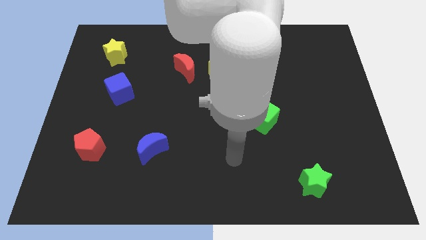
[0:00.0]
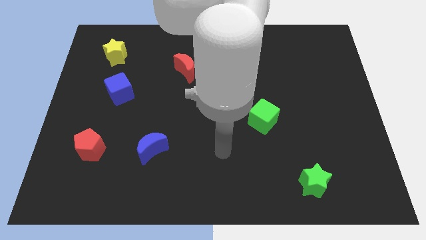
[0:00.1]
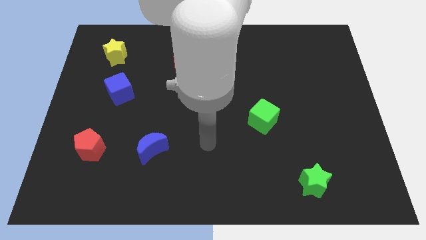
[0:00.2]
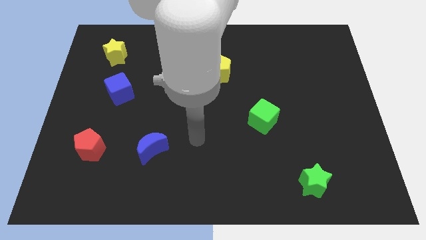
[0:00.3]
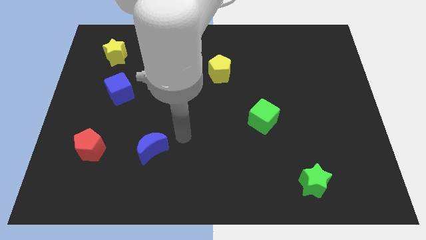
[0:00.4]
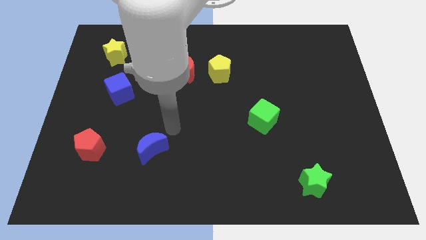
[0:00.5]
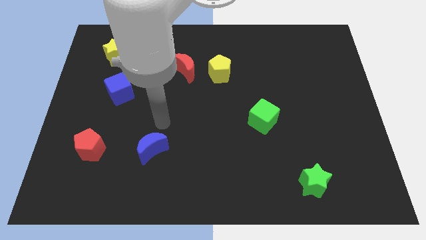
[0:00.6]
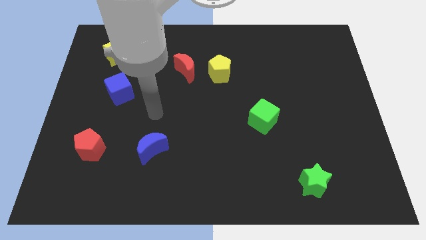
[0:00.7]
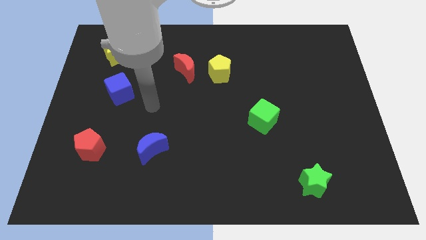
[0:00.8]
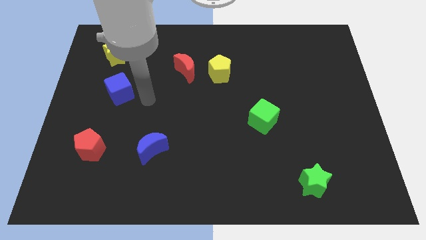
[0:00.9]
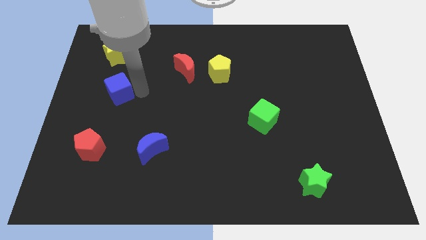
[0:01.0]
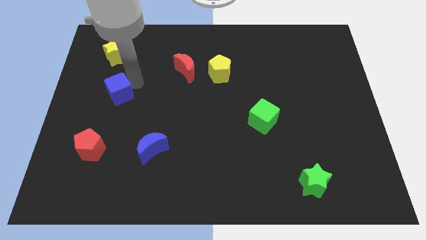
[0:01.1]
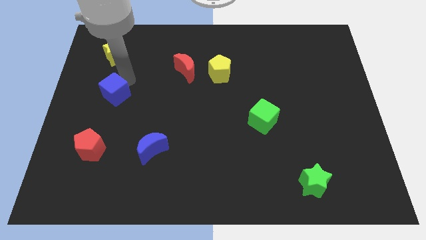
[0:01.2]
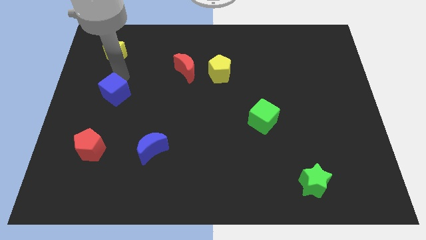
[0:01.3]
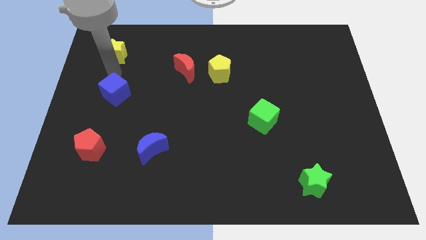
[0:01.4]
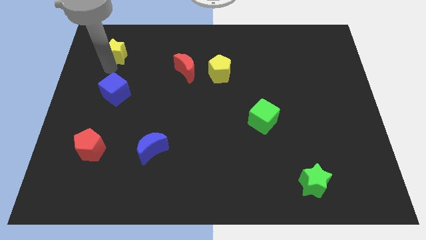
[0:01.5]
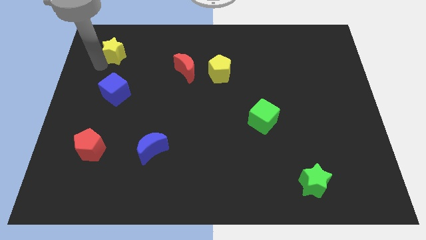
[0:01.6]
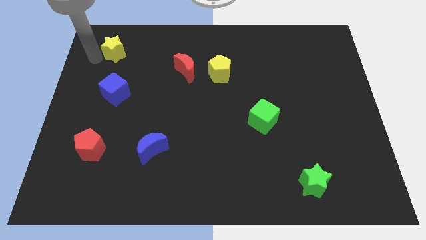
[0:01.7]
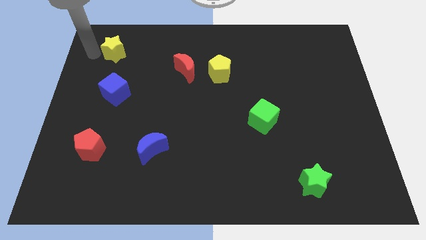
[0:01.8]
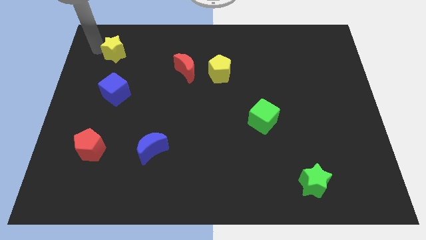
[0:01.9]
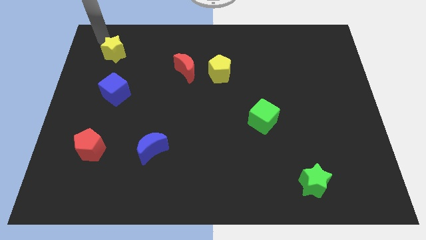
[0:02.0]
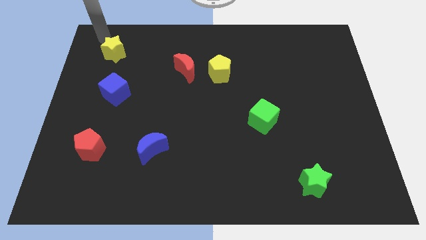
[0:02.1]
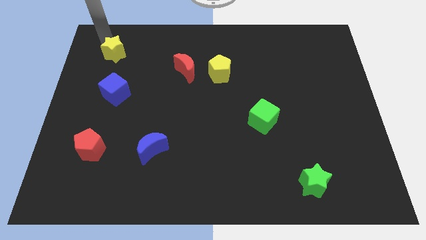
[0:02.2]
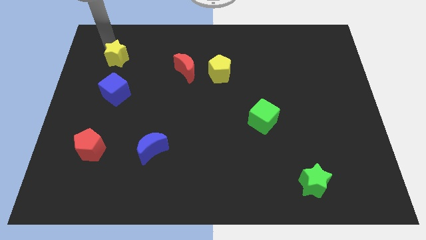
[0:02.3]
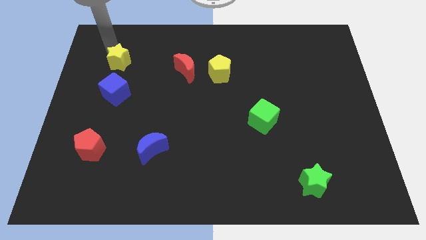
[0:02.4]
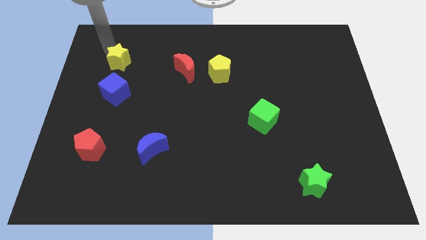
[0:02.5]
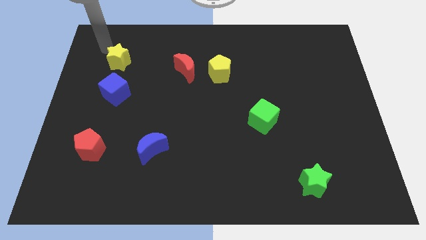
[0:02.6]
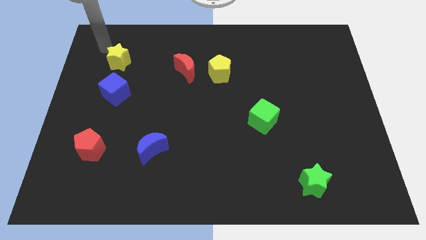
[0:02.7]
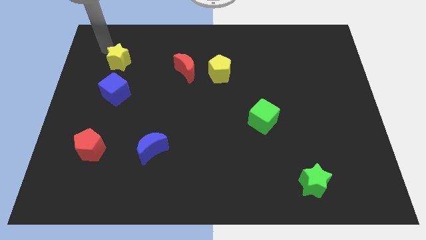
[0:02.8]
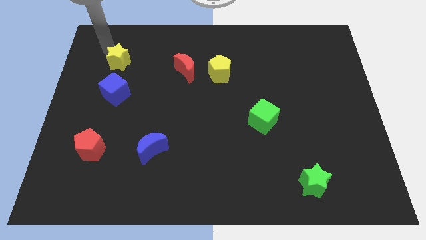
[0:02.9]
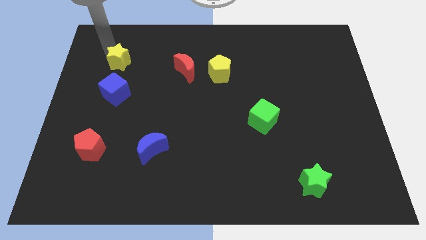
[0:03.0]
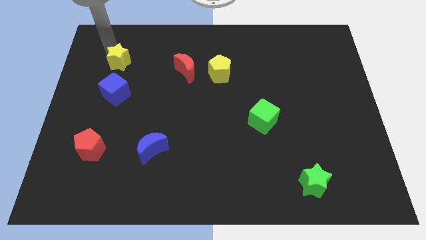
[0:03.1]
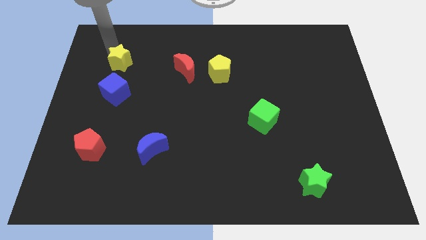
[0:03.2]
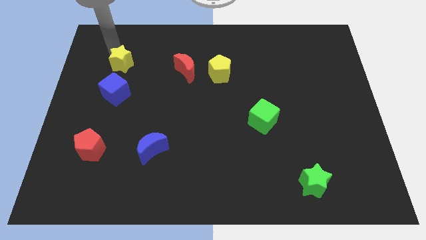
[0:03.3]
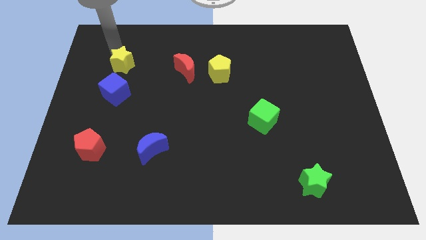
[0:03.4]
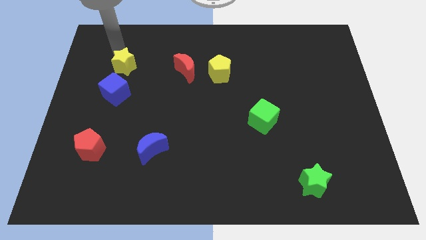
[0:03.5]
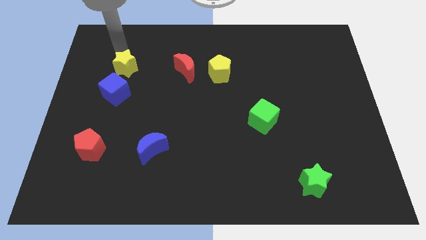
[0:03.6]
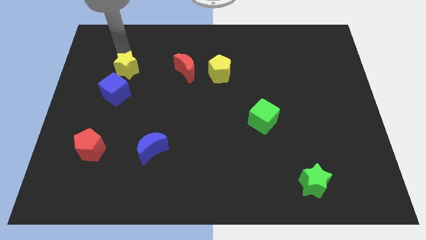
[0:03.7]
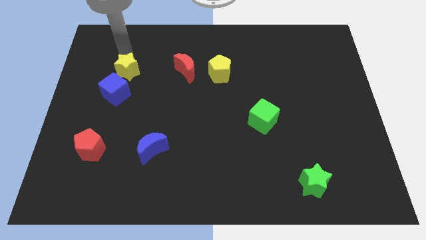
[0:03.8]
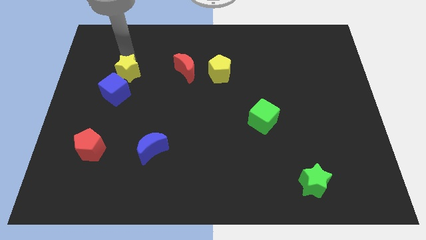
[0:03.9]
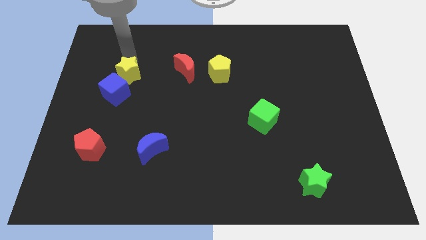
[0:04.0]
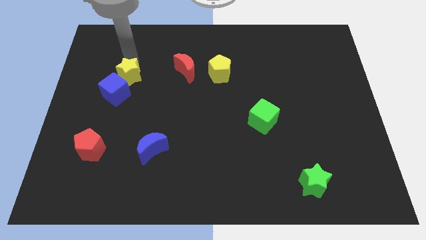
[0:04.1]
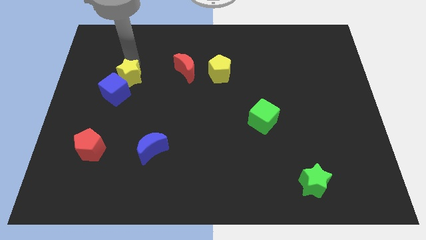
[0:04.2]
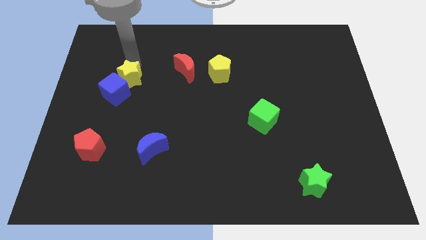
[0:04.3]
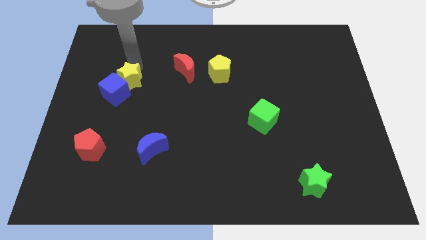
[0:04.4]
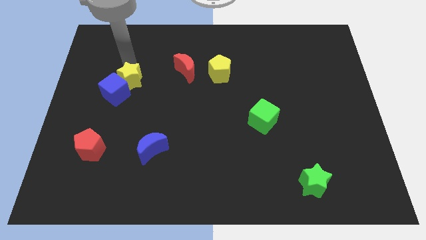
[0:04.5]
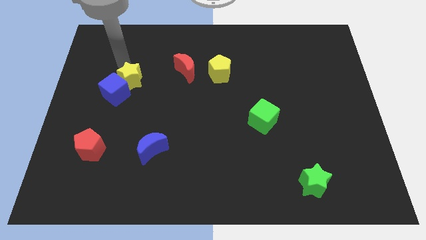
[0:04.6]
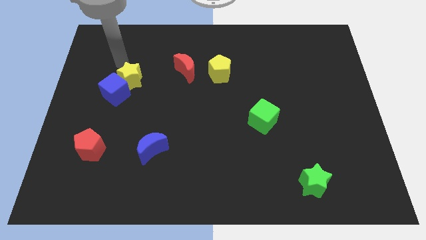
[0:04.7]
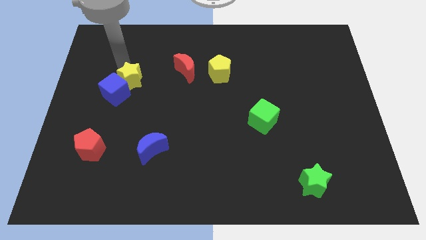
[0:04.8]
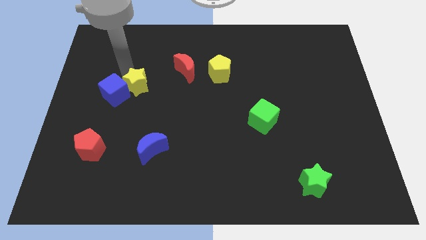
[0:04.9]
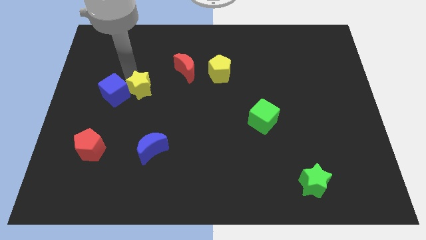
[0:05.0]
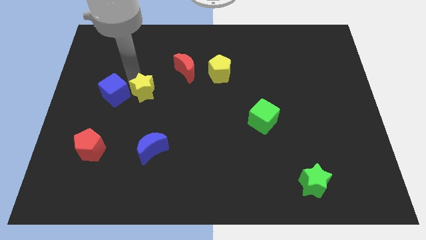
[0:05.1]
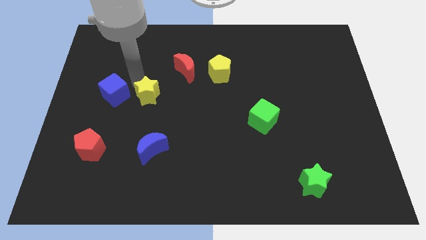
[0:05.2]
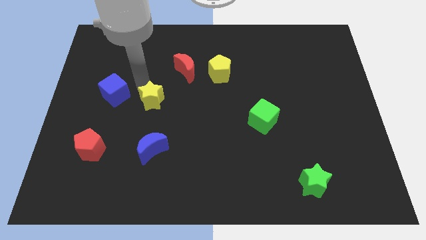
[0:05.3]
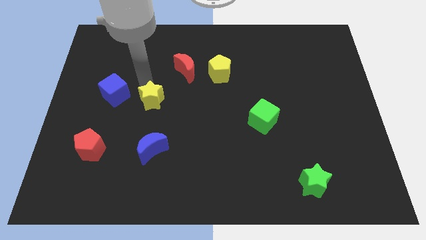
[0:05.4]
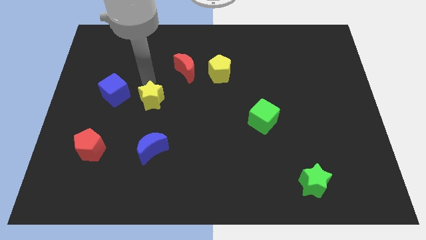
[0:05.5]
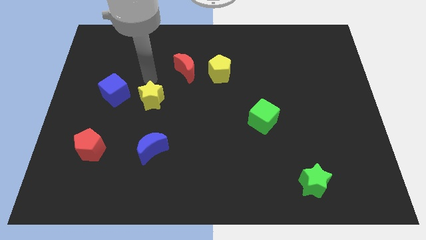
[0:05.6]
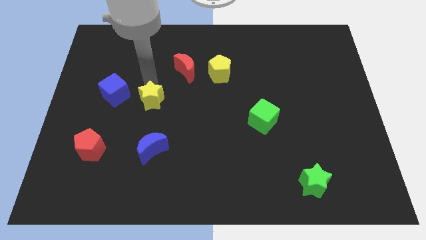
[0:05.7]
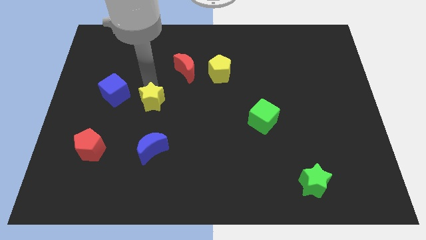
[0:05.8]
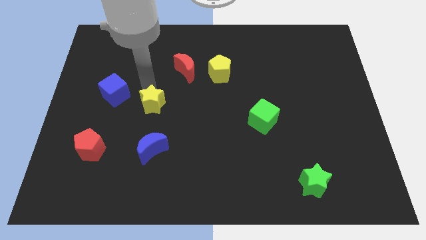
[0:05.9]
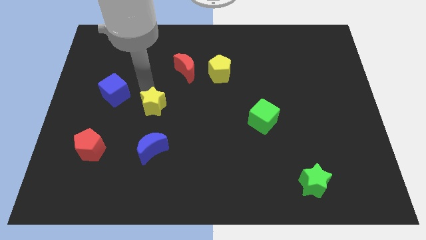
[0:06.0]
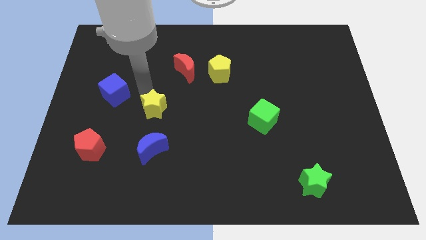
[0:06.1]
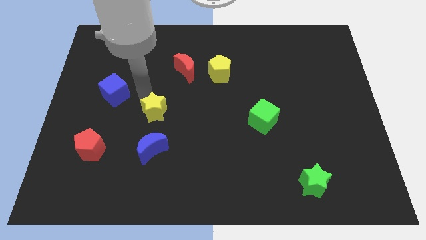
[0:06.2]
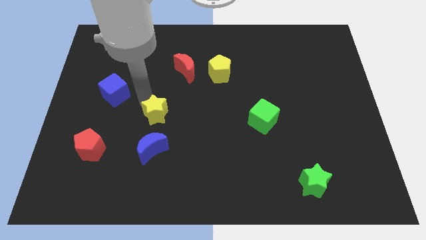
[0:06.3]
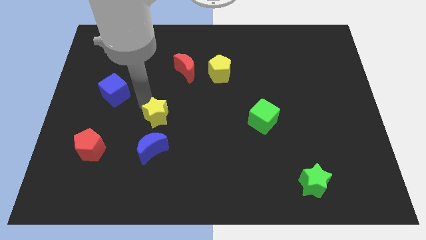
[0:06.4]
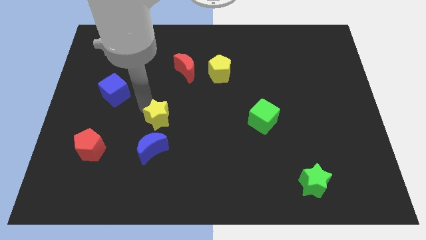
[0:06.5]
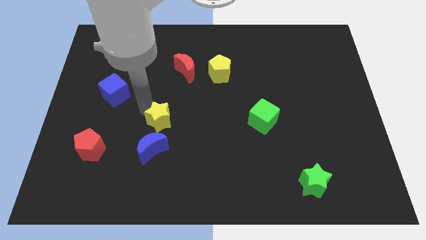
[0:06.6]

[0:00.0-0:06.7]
move the yellow star to the top right of the blue moon
